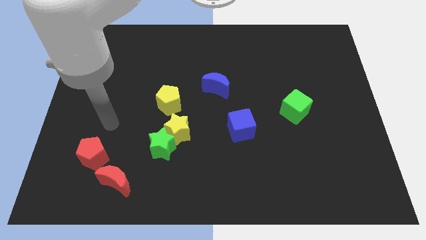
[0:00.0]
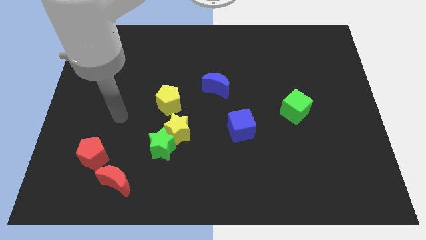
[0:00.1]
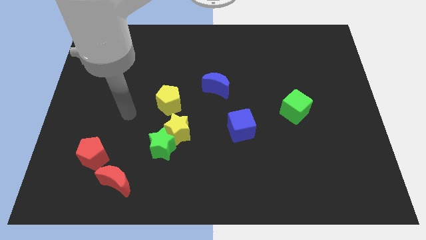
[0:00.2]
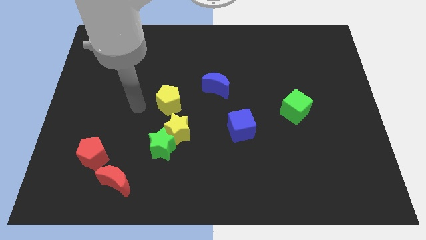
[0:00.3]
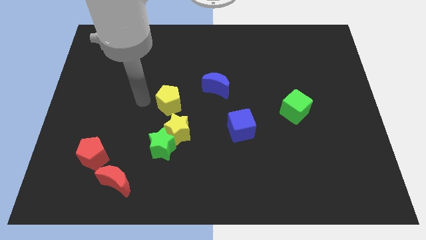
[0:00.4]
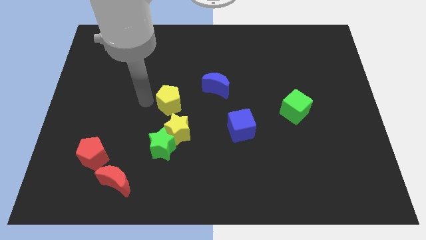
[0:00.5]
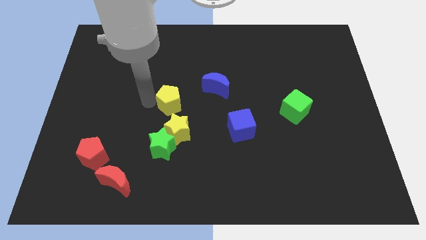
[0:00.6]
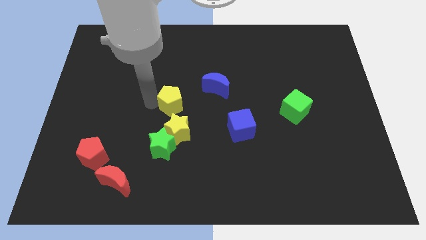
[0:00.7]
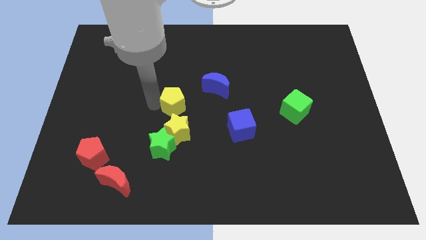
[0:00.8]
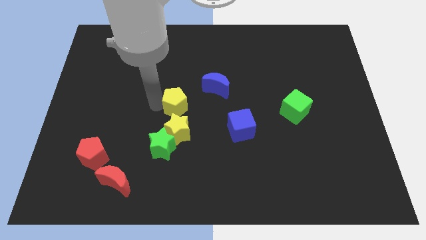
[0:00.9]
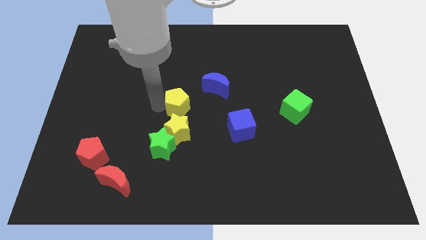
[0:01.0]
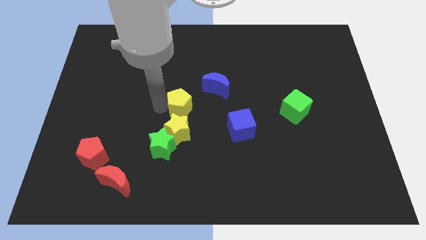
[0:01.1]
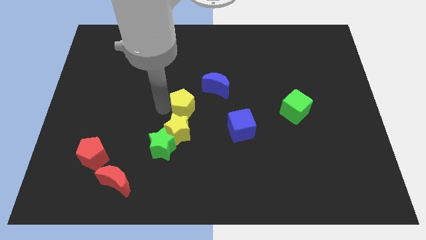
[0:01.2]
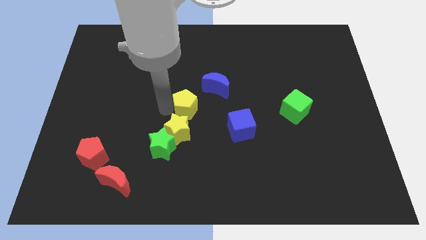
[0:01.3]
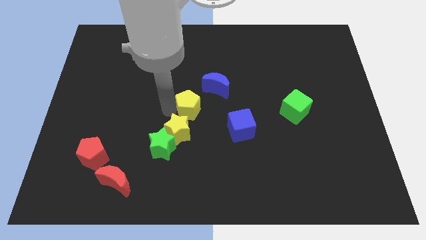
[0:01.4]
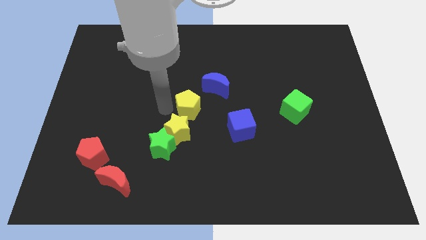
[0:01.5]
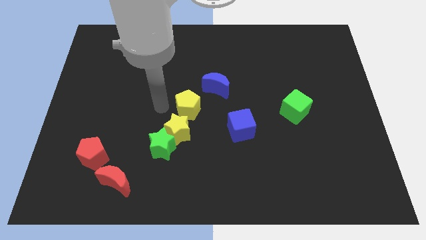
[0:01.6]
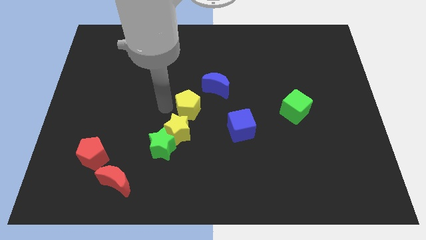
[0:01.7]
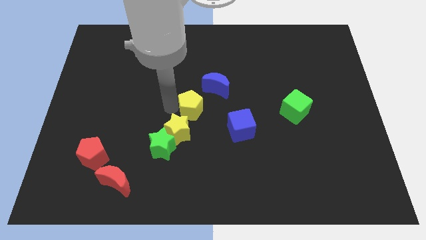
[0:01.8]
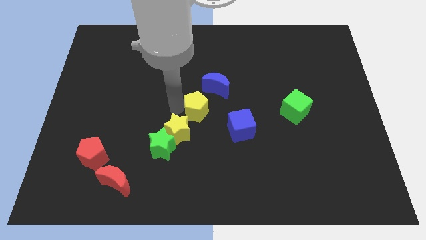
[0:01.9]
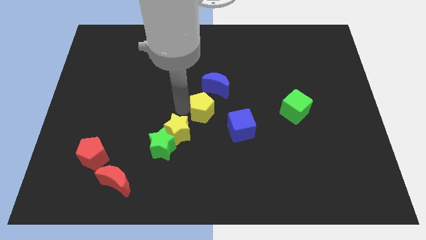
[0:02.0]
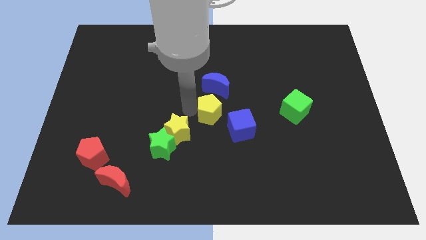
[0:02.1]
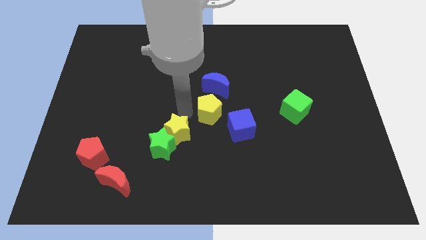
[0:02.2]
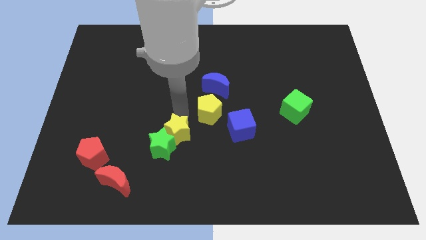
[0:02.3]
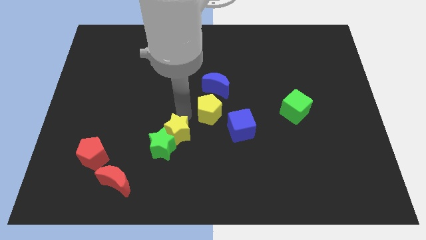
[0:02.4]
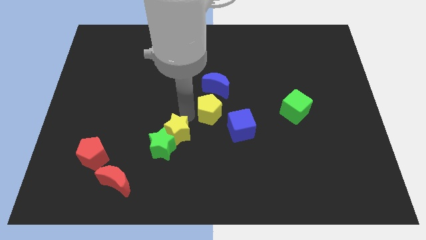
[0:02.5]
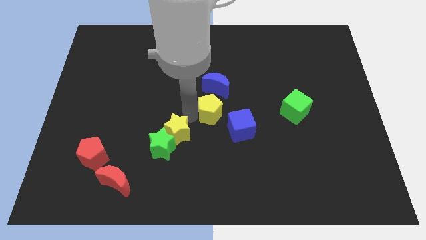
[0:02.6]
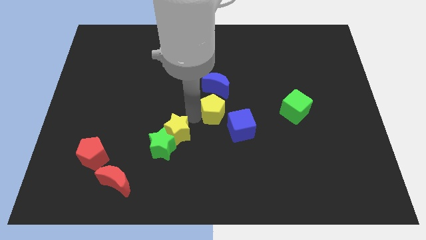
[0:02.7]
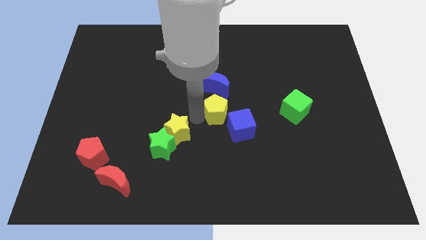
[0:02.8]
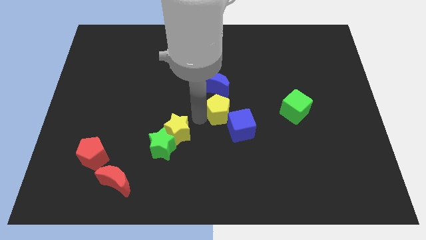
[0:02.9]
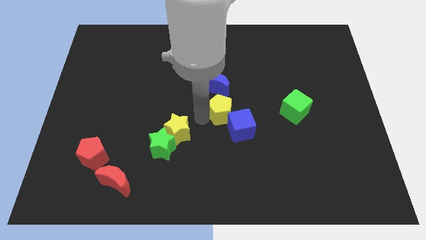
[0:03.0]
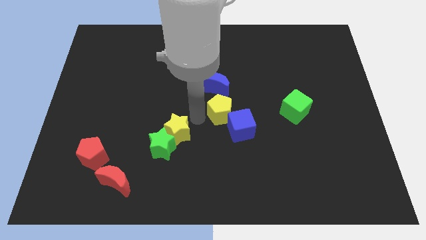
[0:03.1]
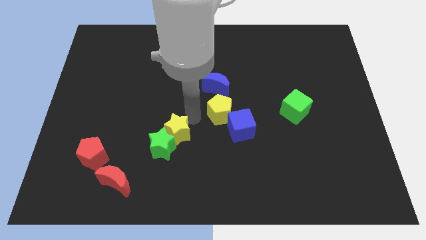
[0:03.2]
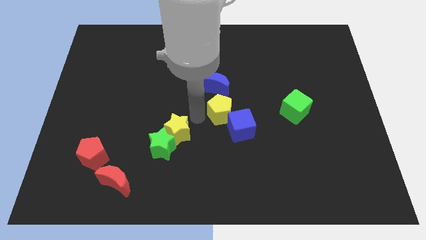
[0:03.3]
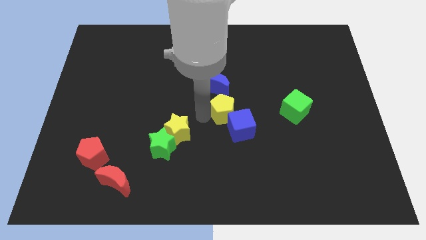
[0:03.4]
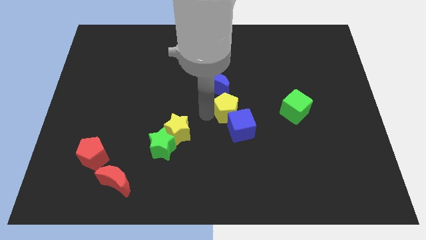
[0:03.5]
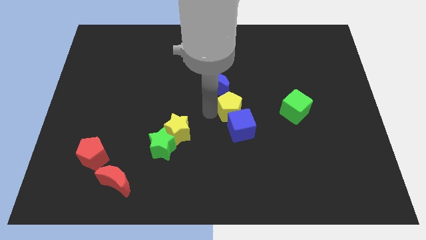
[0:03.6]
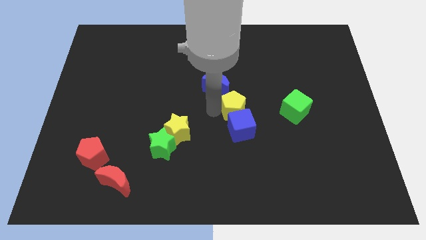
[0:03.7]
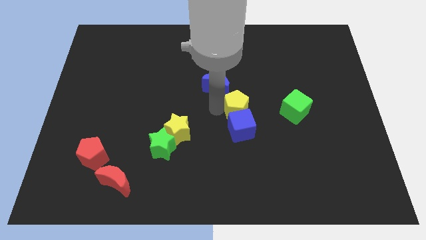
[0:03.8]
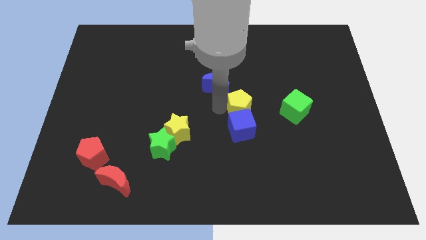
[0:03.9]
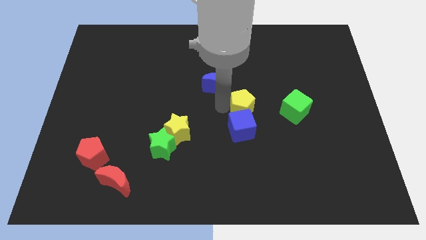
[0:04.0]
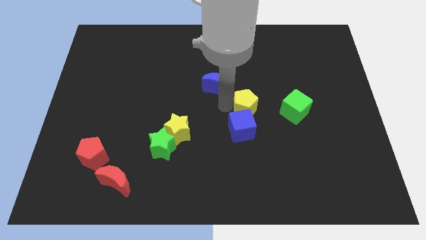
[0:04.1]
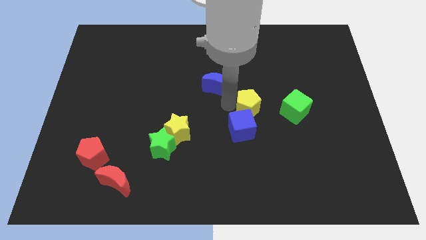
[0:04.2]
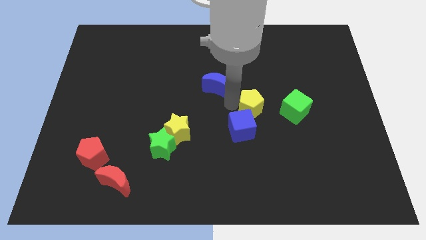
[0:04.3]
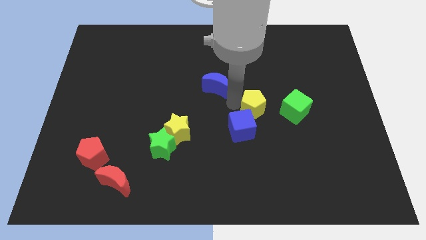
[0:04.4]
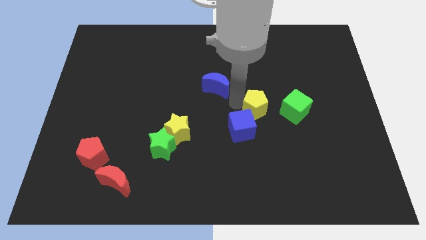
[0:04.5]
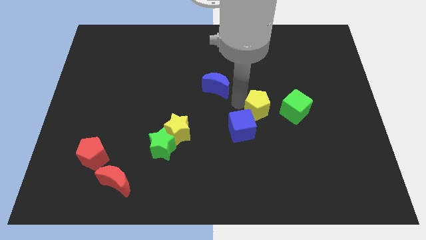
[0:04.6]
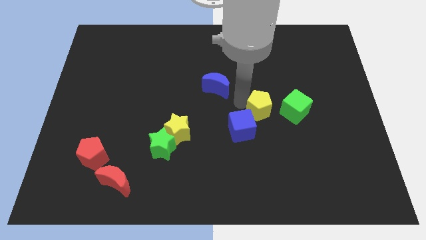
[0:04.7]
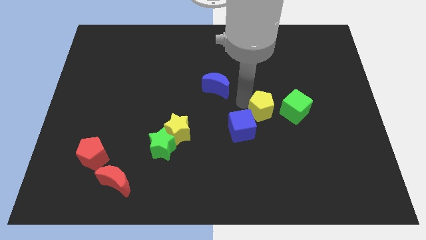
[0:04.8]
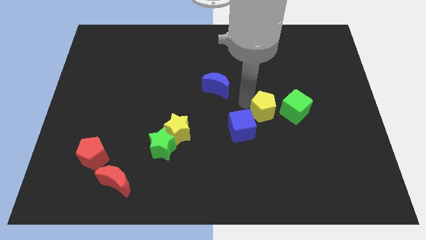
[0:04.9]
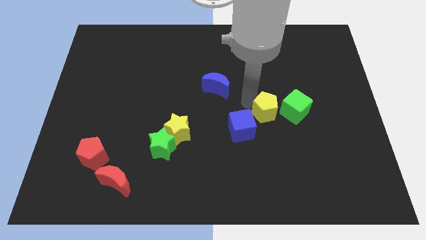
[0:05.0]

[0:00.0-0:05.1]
slide the yellow pentagon to the right side of the blue cube

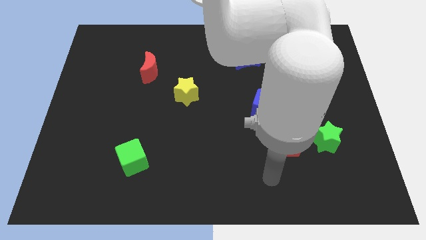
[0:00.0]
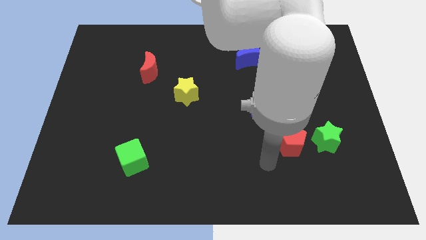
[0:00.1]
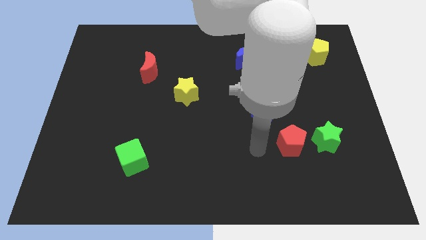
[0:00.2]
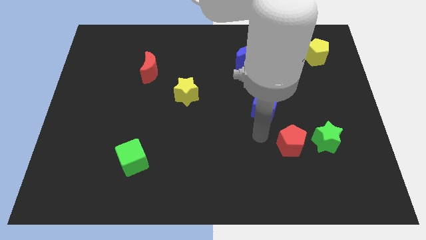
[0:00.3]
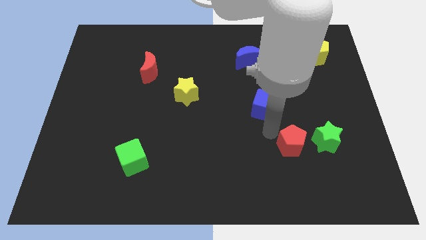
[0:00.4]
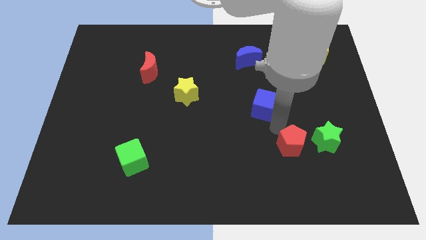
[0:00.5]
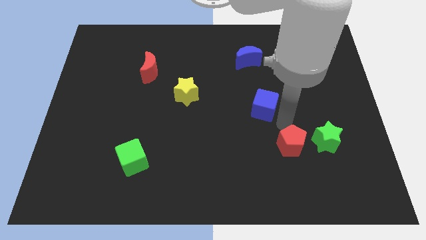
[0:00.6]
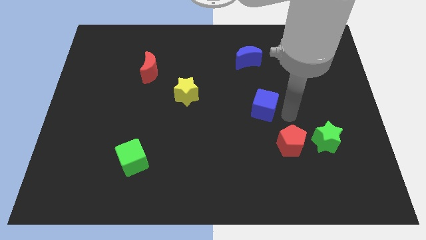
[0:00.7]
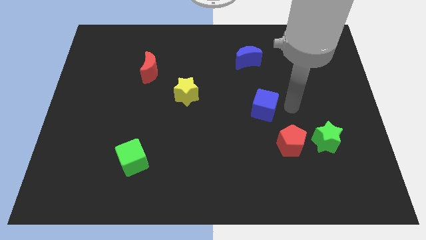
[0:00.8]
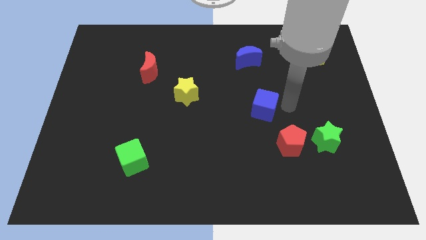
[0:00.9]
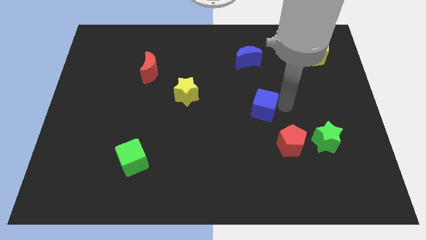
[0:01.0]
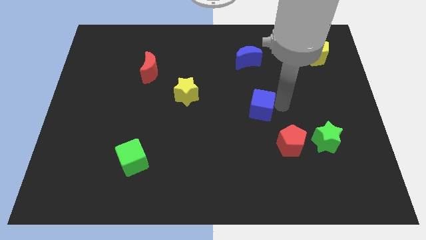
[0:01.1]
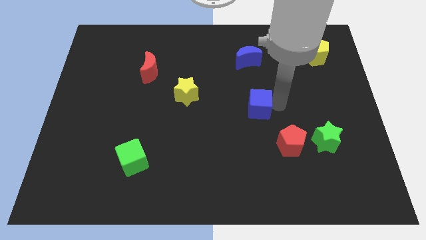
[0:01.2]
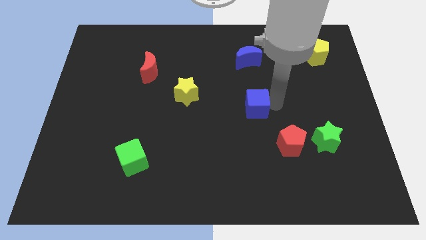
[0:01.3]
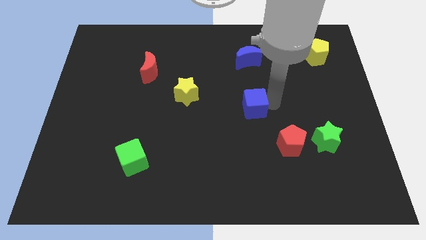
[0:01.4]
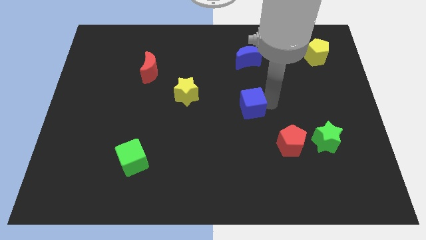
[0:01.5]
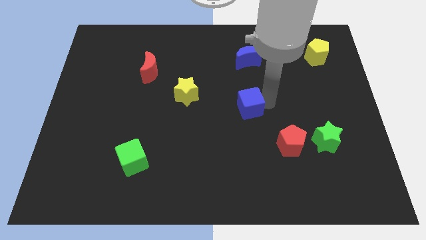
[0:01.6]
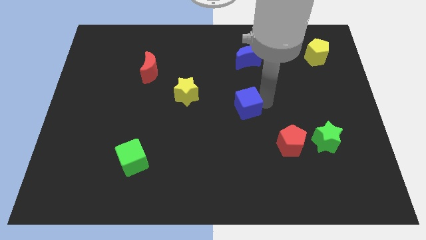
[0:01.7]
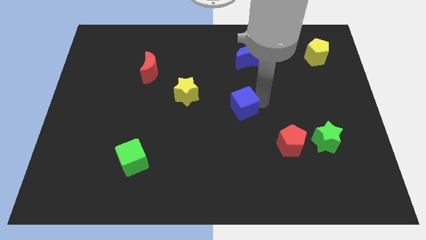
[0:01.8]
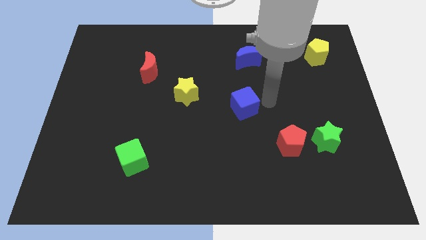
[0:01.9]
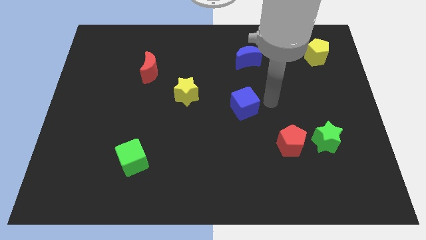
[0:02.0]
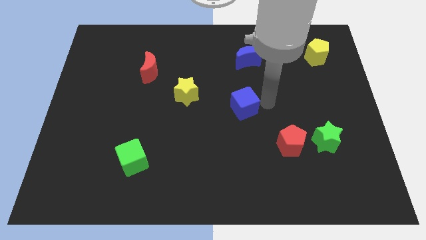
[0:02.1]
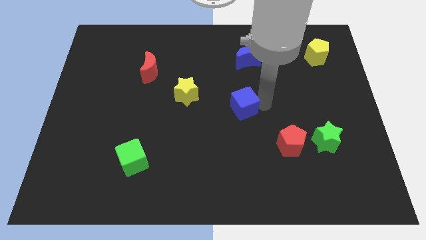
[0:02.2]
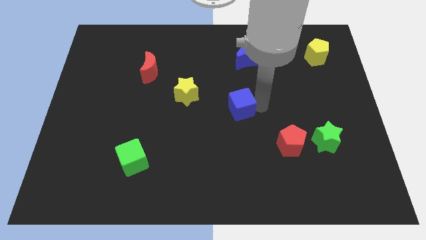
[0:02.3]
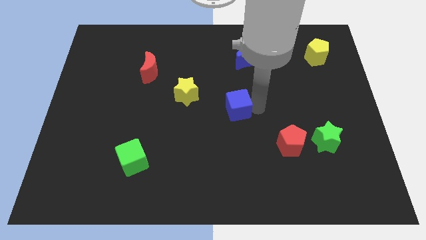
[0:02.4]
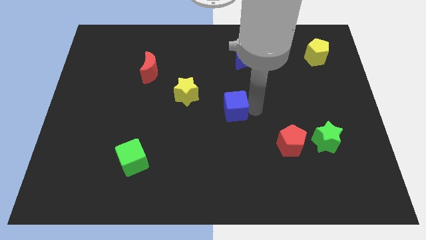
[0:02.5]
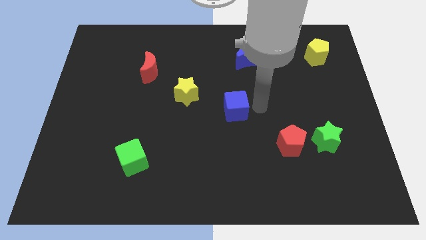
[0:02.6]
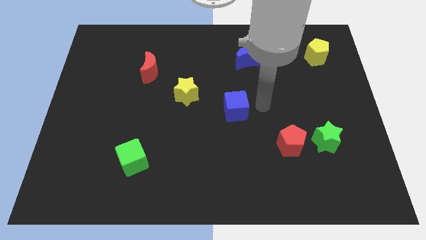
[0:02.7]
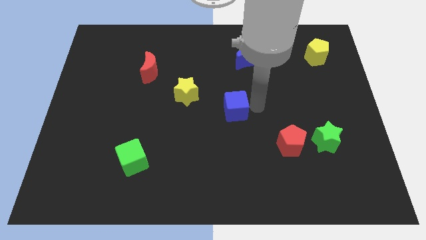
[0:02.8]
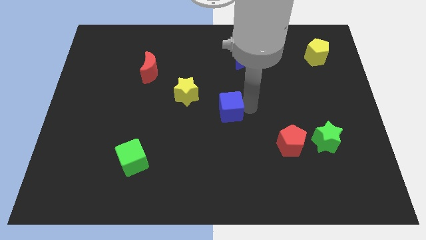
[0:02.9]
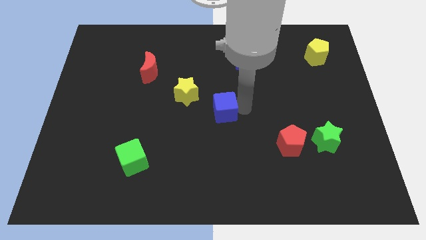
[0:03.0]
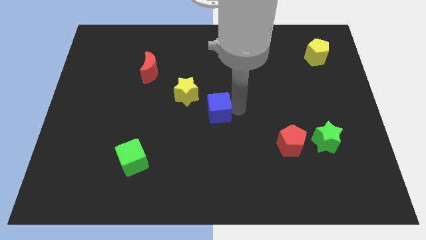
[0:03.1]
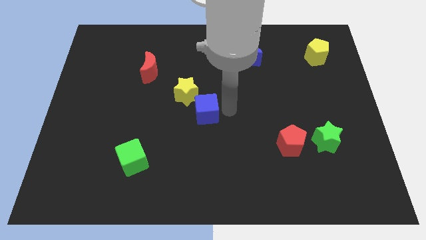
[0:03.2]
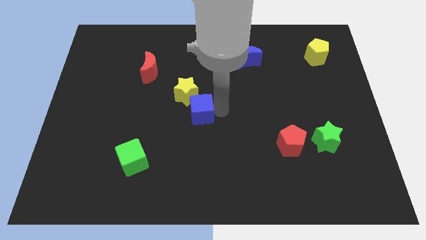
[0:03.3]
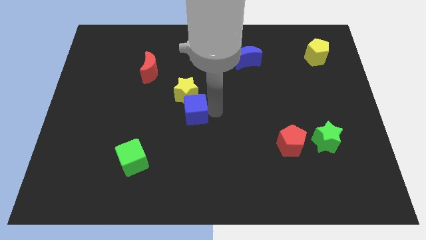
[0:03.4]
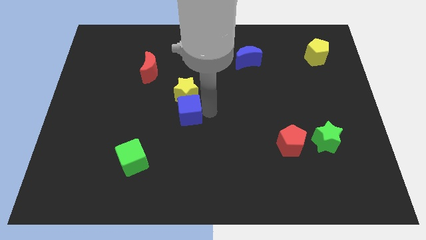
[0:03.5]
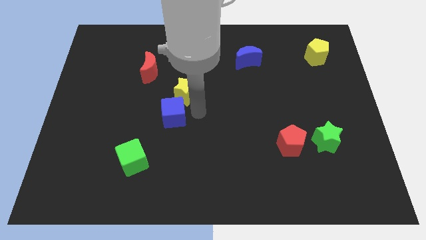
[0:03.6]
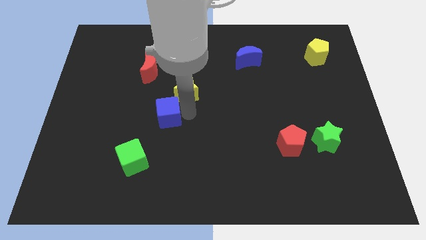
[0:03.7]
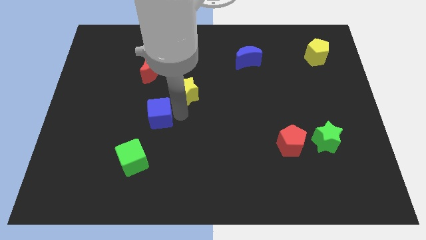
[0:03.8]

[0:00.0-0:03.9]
put the blue cube above the green cube
